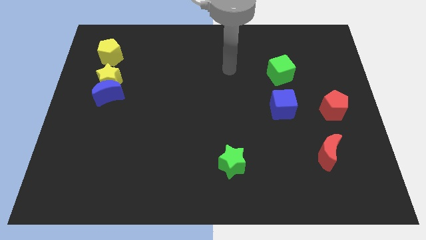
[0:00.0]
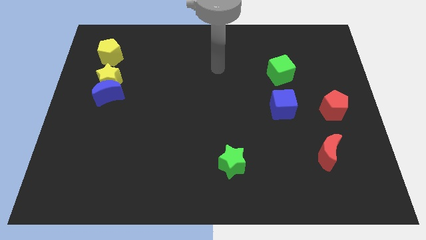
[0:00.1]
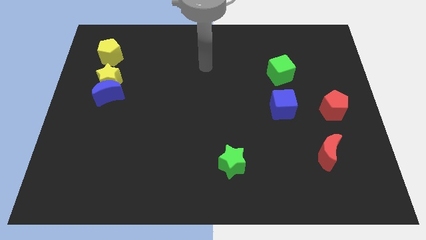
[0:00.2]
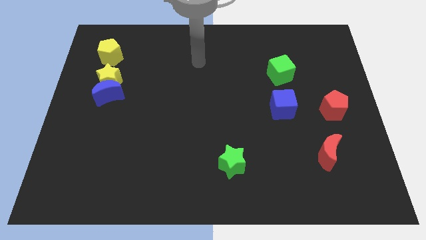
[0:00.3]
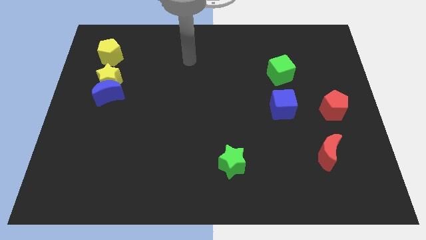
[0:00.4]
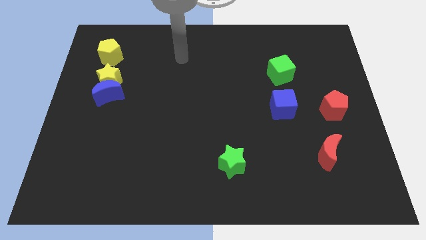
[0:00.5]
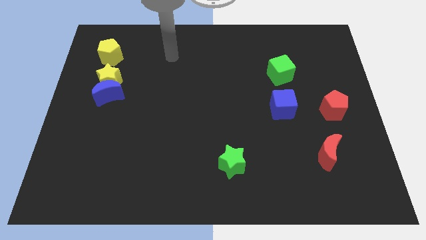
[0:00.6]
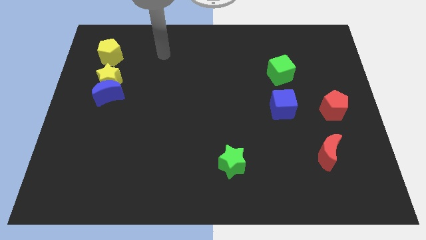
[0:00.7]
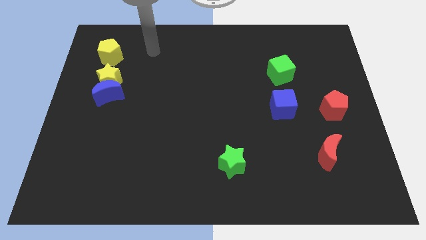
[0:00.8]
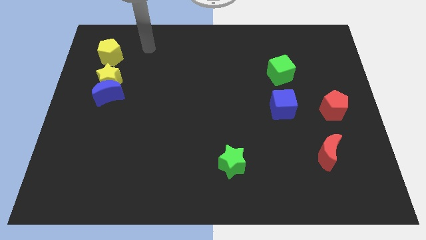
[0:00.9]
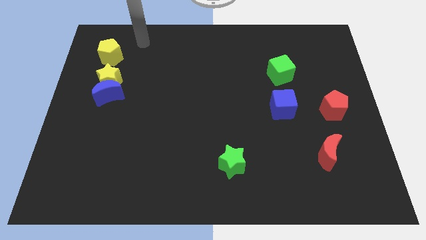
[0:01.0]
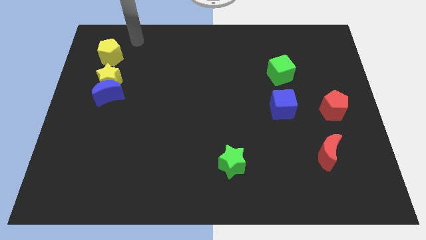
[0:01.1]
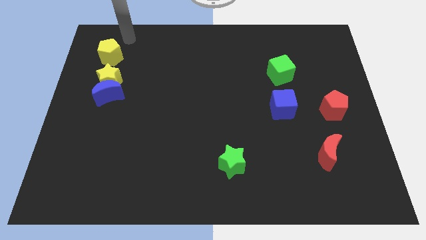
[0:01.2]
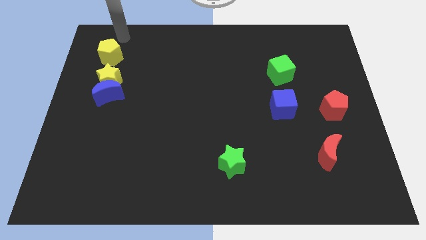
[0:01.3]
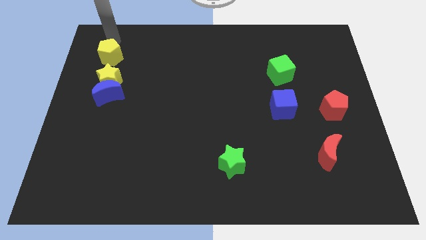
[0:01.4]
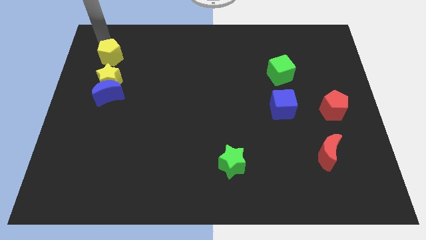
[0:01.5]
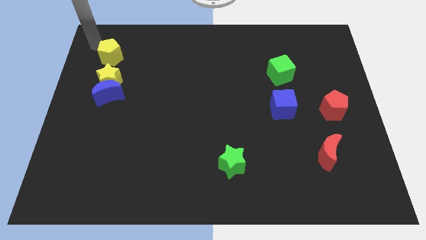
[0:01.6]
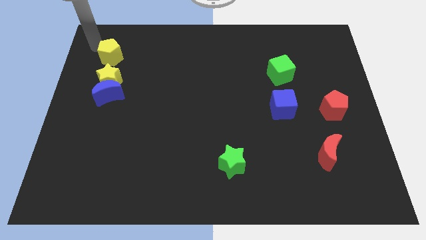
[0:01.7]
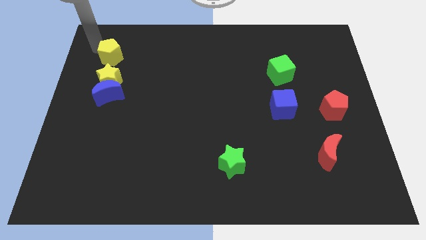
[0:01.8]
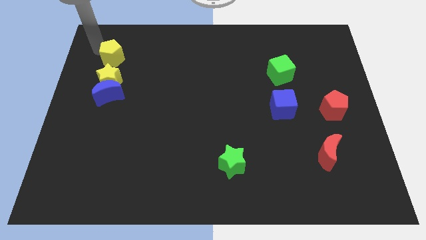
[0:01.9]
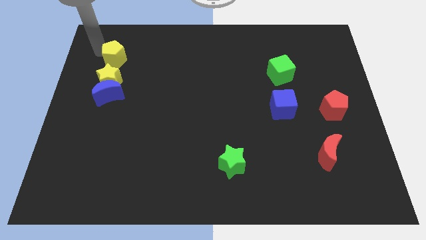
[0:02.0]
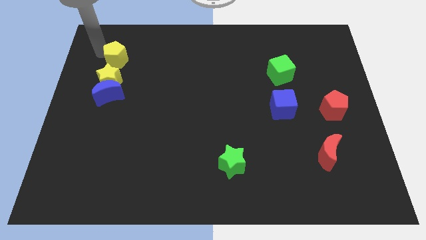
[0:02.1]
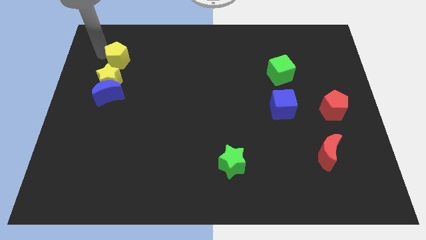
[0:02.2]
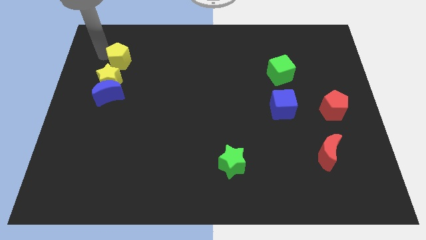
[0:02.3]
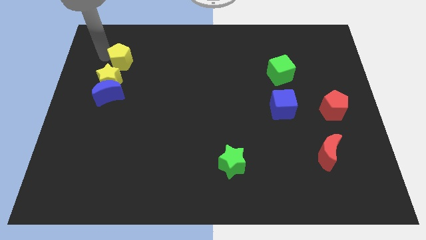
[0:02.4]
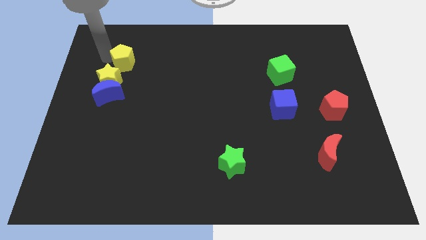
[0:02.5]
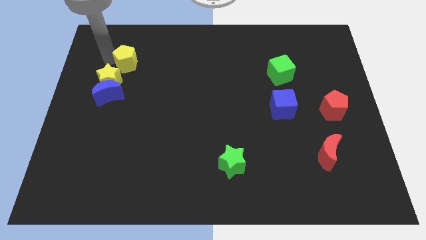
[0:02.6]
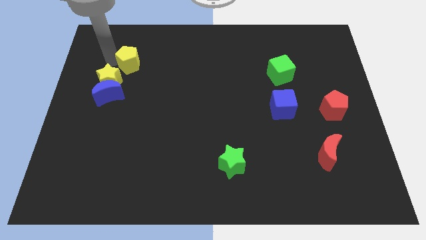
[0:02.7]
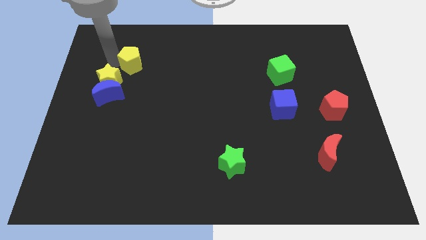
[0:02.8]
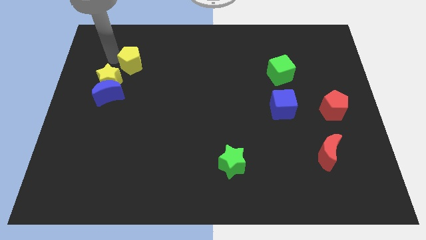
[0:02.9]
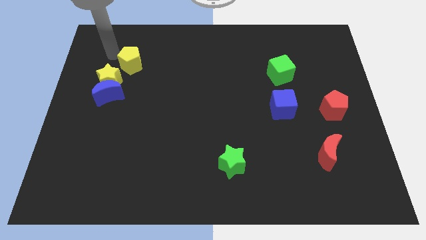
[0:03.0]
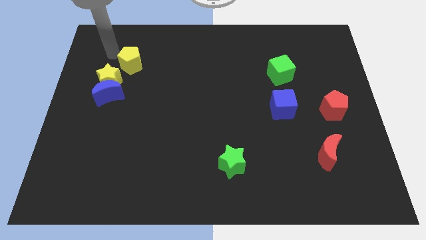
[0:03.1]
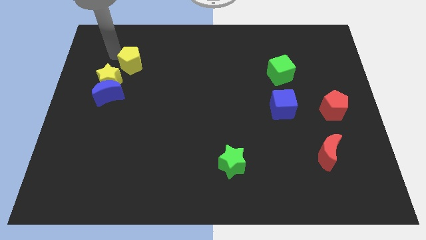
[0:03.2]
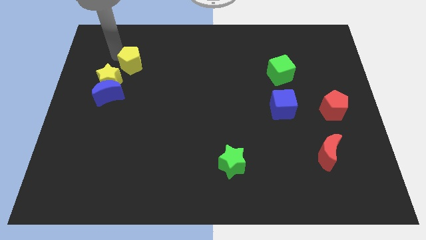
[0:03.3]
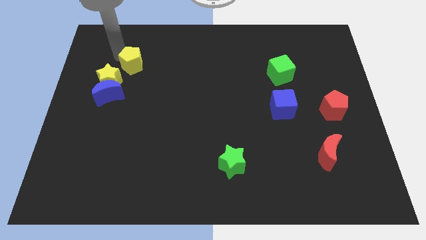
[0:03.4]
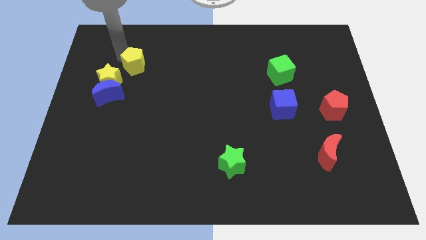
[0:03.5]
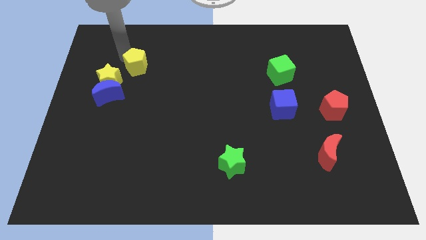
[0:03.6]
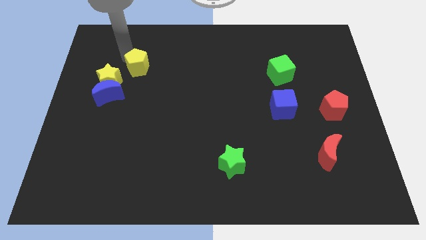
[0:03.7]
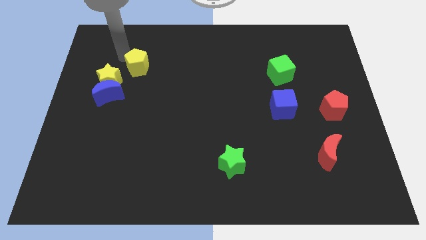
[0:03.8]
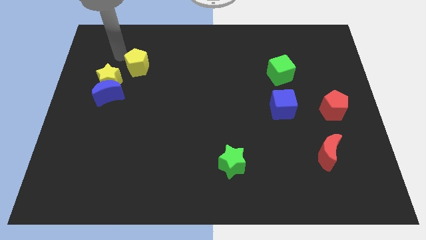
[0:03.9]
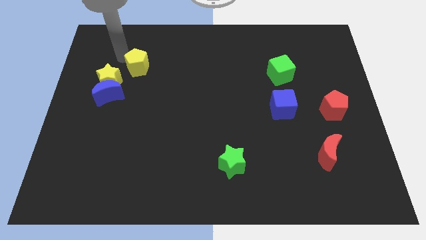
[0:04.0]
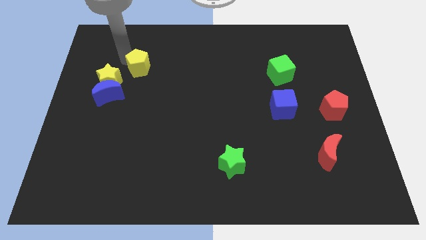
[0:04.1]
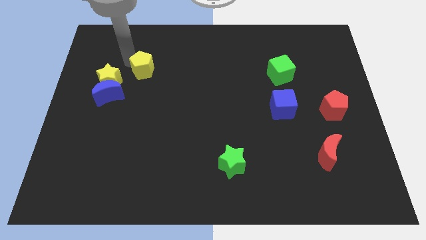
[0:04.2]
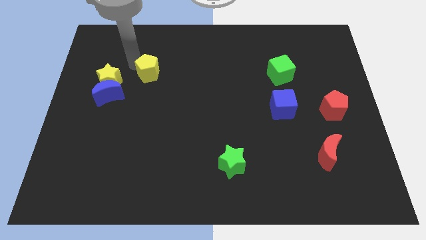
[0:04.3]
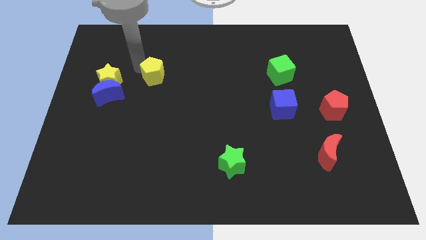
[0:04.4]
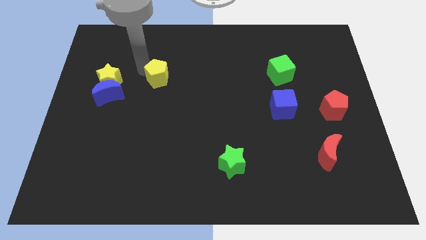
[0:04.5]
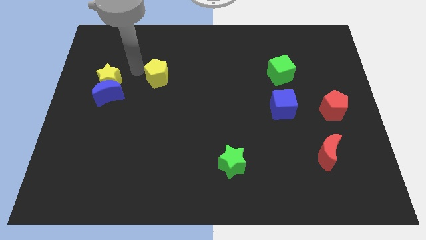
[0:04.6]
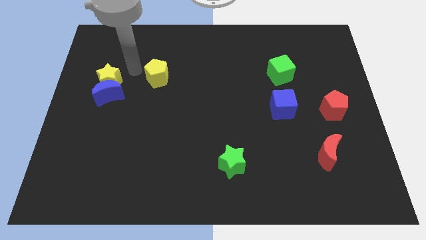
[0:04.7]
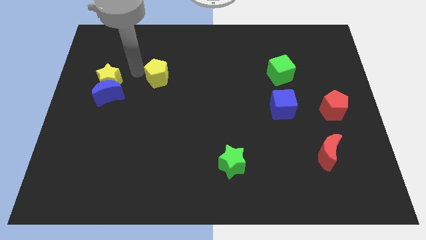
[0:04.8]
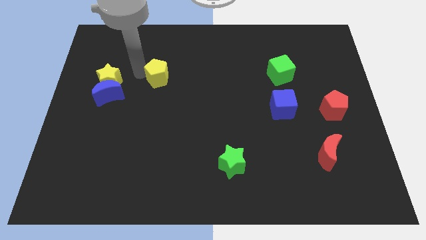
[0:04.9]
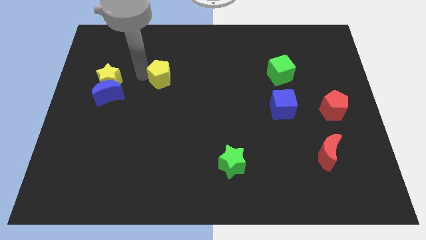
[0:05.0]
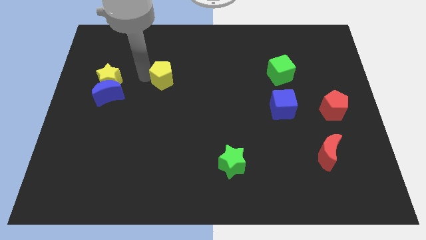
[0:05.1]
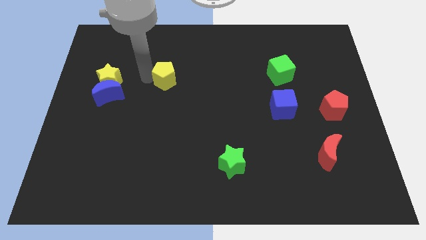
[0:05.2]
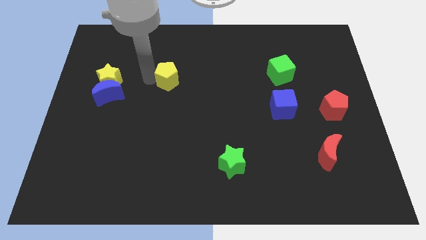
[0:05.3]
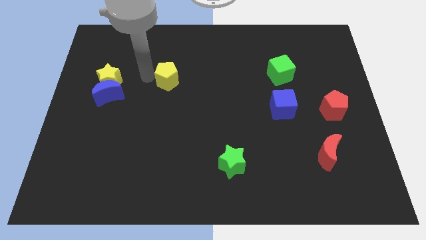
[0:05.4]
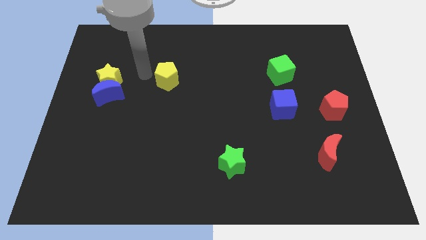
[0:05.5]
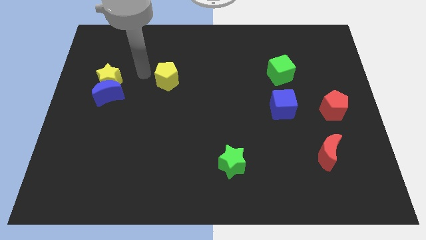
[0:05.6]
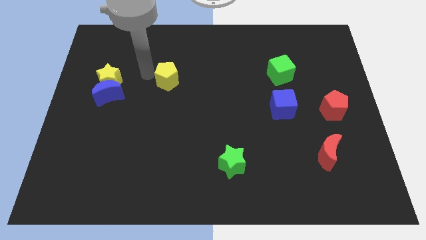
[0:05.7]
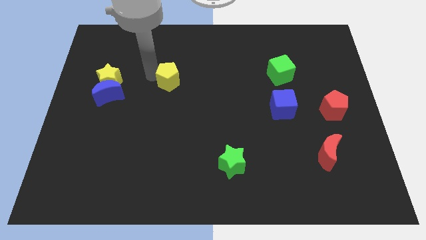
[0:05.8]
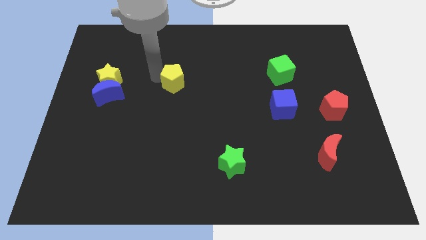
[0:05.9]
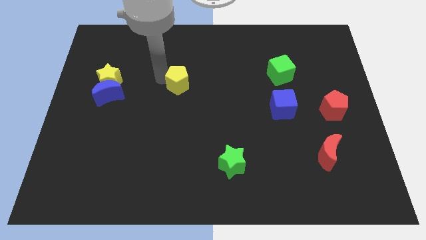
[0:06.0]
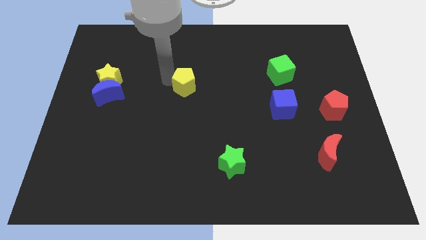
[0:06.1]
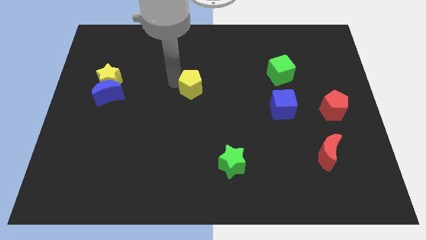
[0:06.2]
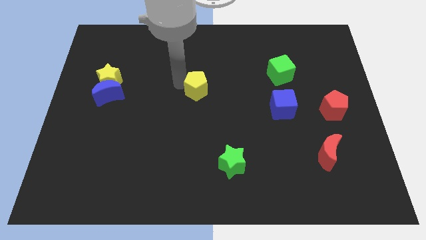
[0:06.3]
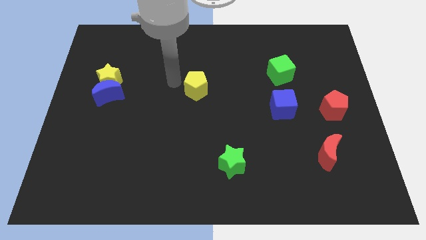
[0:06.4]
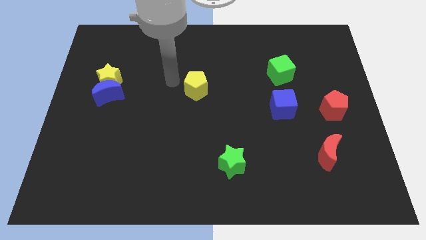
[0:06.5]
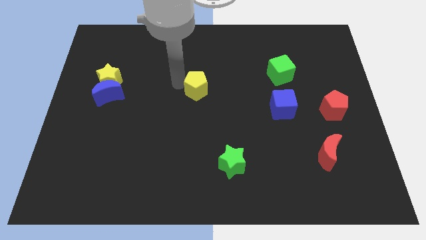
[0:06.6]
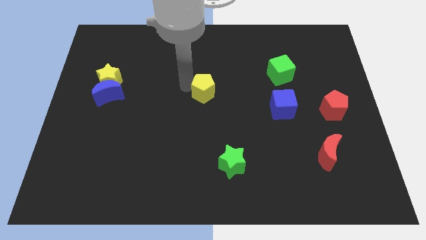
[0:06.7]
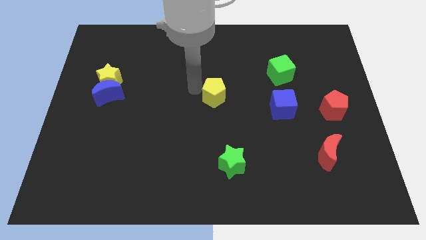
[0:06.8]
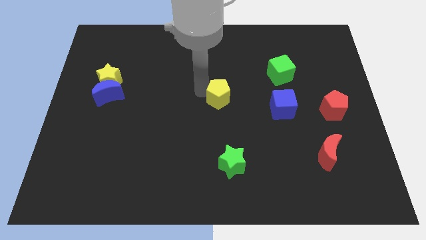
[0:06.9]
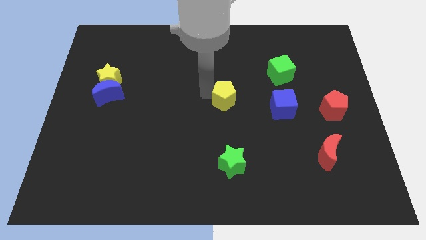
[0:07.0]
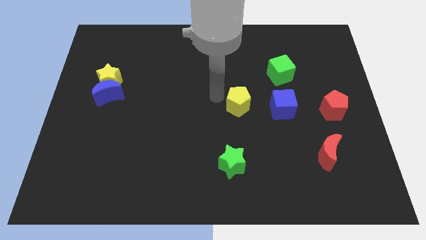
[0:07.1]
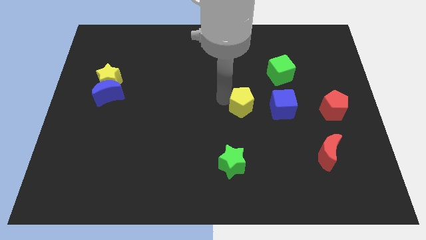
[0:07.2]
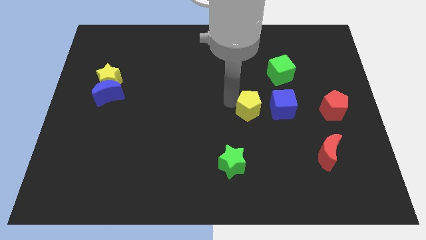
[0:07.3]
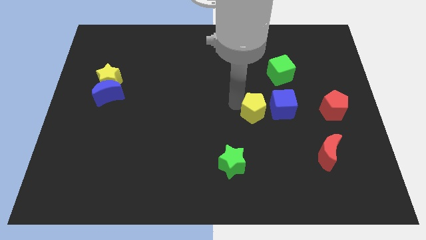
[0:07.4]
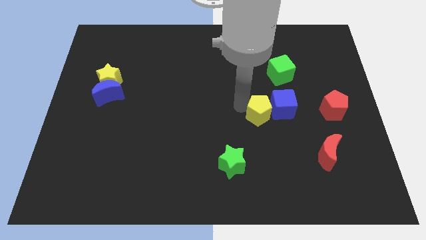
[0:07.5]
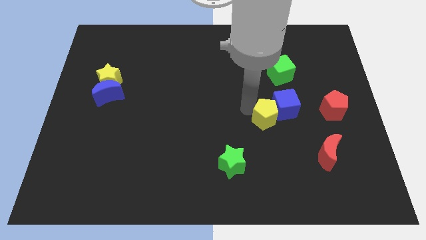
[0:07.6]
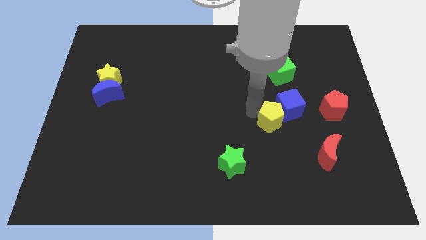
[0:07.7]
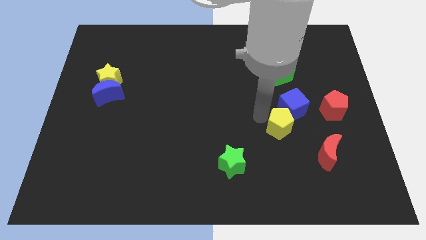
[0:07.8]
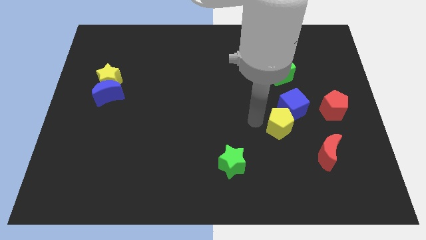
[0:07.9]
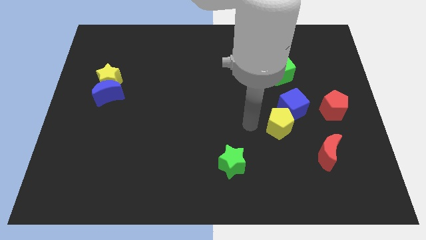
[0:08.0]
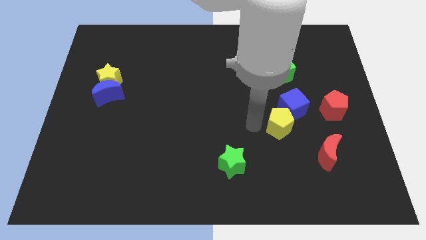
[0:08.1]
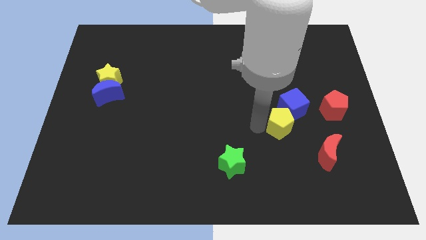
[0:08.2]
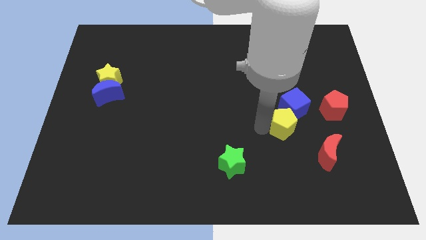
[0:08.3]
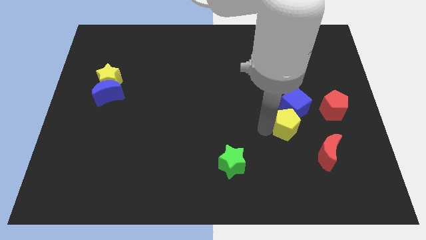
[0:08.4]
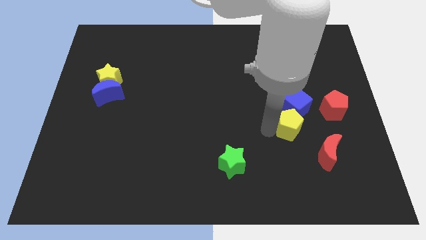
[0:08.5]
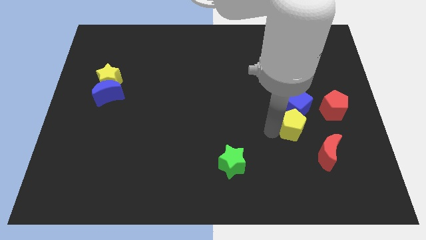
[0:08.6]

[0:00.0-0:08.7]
push the yellow pentagon to the bottom left side of the red pentagon
